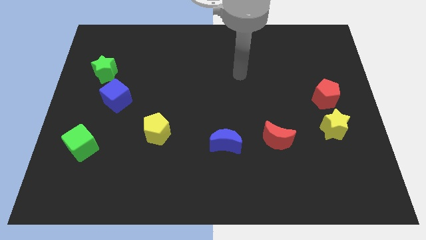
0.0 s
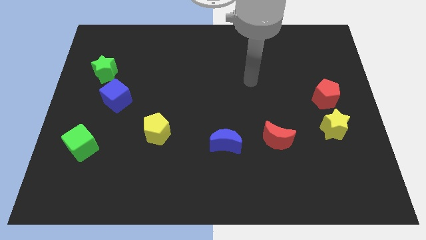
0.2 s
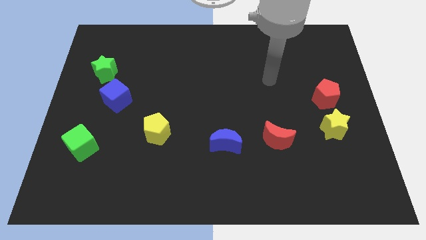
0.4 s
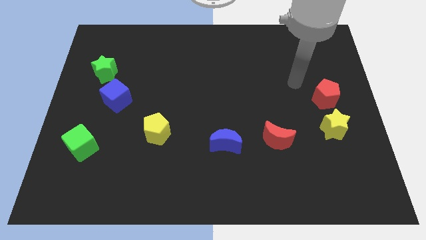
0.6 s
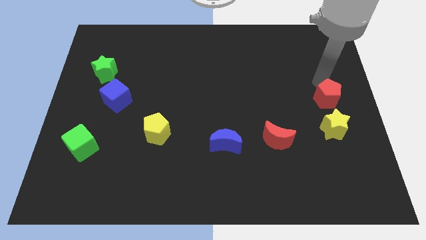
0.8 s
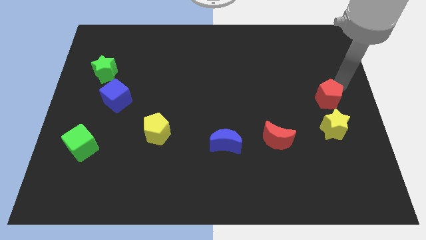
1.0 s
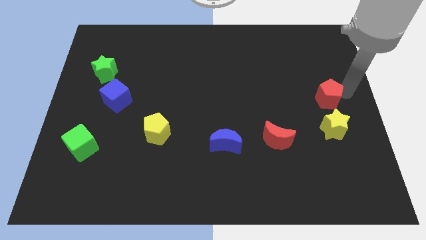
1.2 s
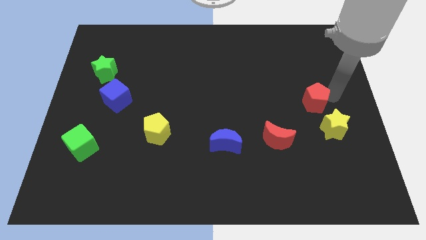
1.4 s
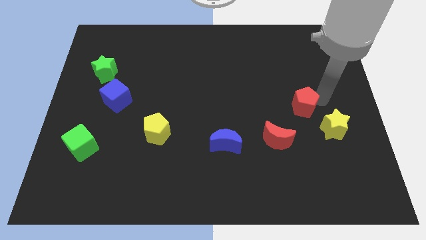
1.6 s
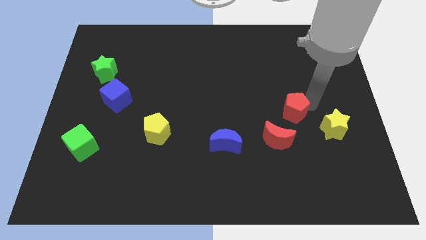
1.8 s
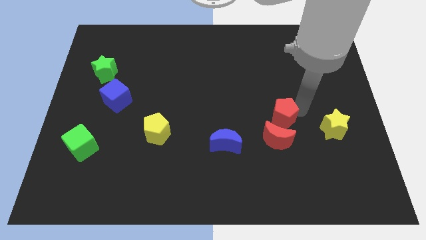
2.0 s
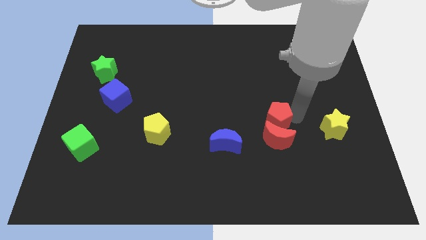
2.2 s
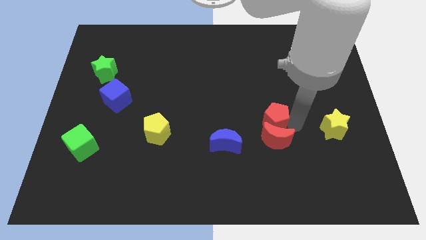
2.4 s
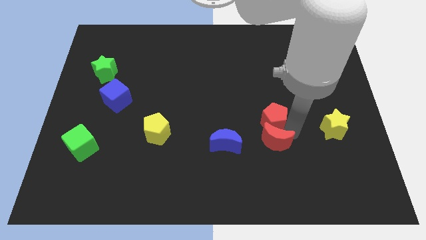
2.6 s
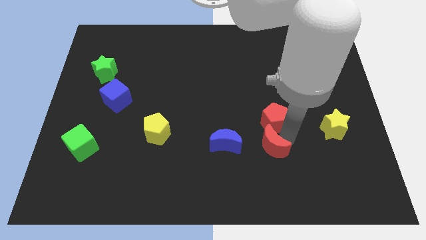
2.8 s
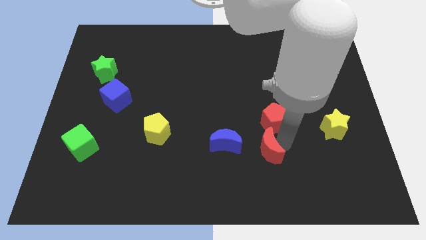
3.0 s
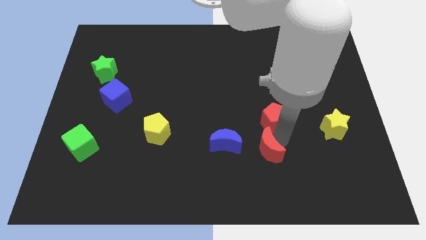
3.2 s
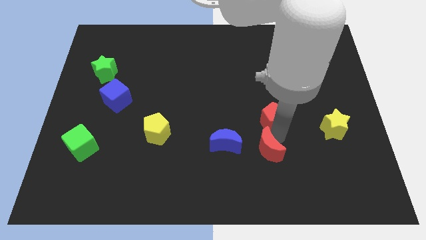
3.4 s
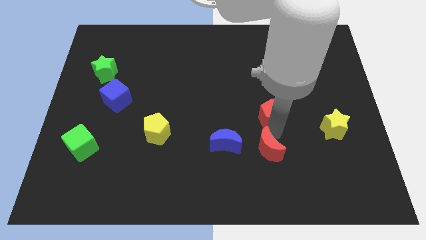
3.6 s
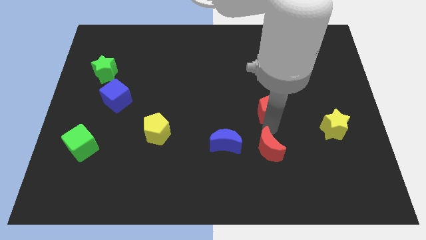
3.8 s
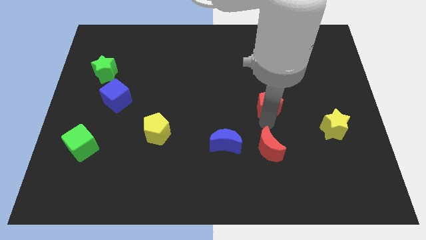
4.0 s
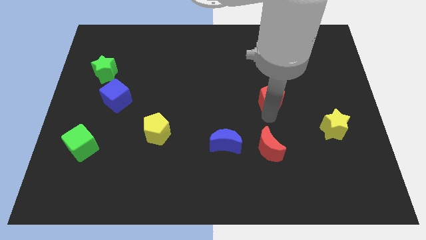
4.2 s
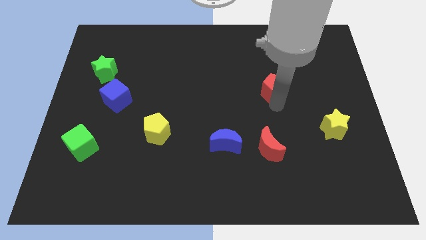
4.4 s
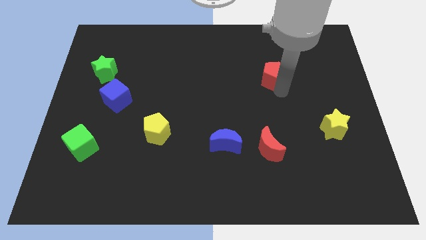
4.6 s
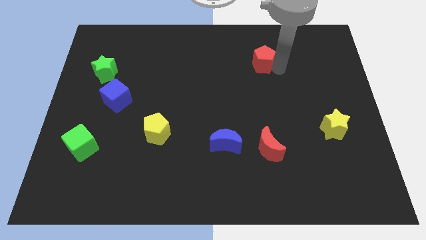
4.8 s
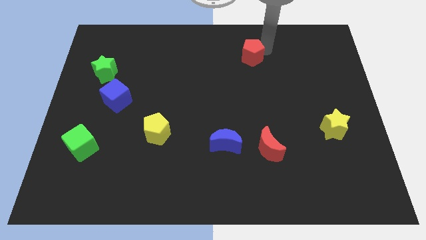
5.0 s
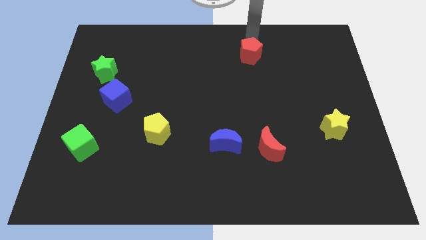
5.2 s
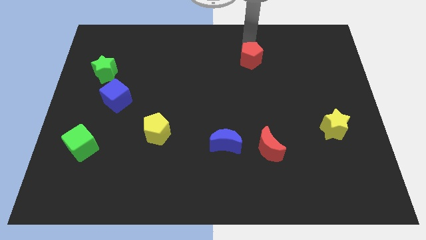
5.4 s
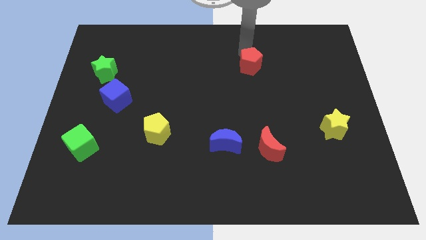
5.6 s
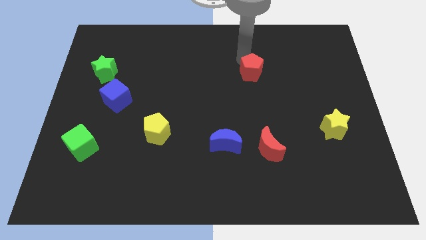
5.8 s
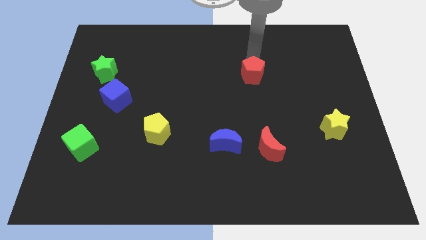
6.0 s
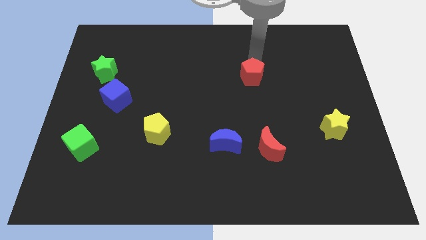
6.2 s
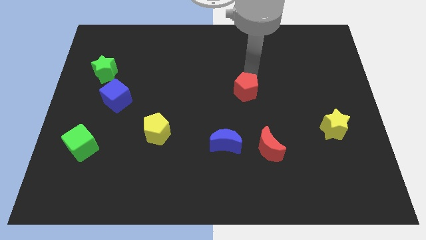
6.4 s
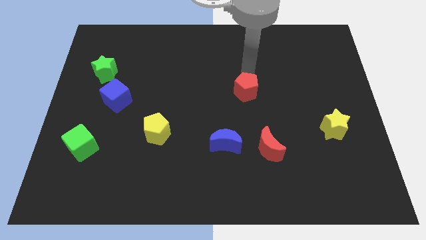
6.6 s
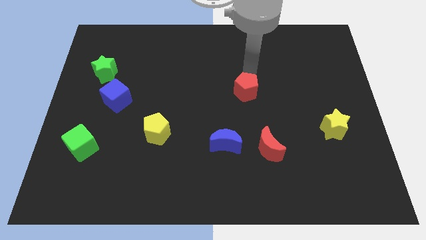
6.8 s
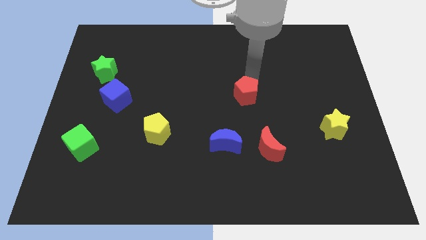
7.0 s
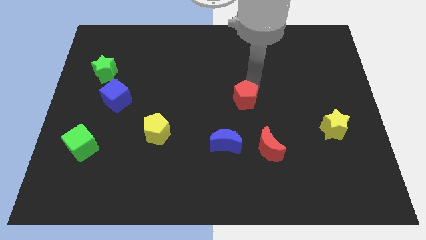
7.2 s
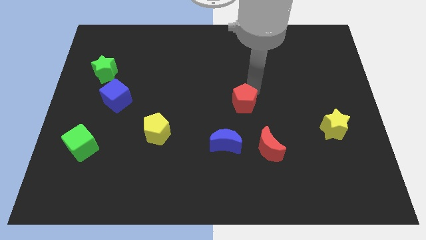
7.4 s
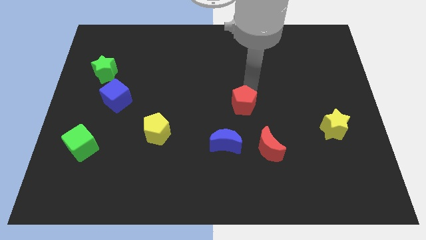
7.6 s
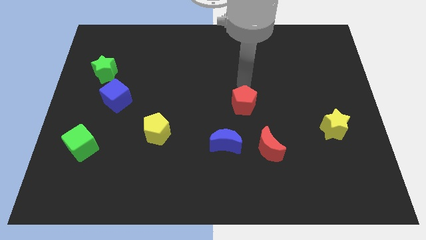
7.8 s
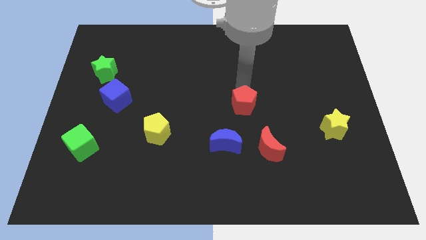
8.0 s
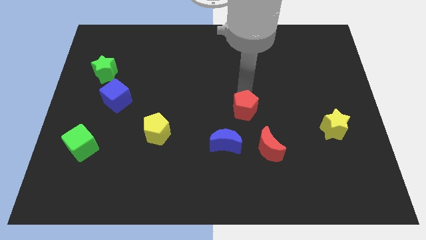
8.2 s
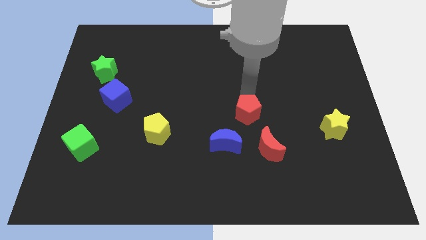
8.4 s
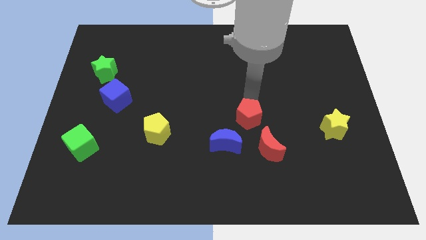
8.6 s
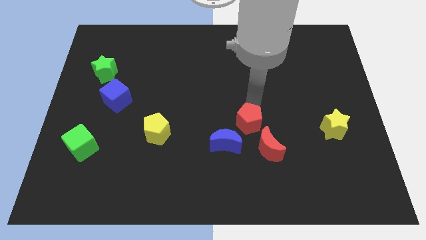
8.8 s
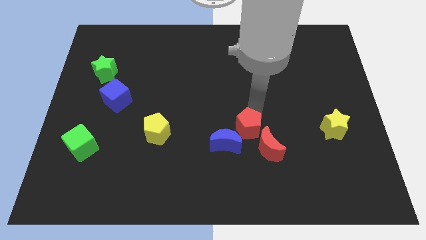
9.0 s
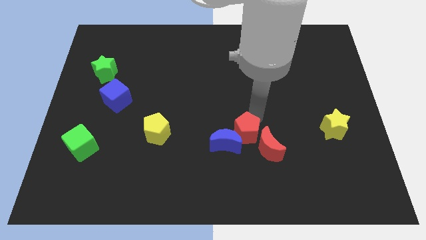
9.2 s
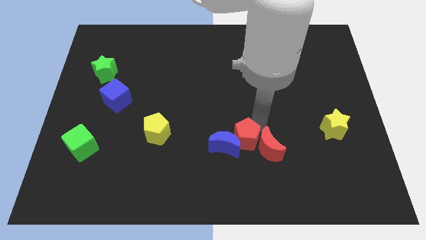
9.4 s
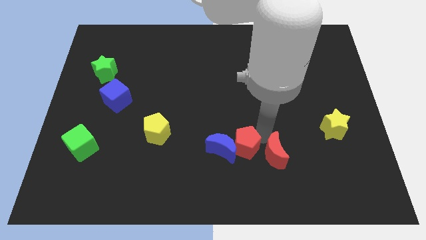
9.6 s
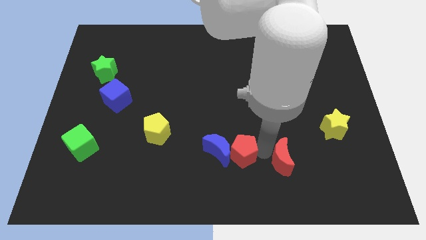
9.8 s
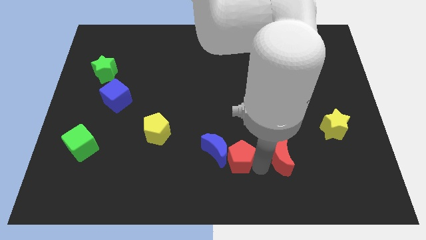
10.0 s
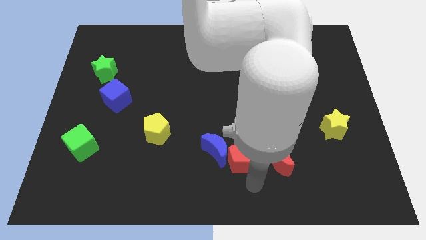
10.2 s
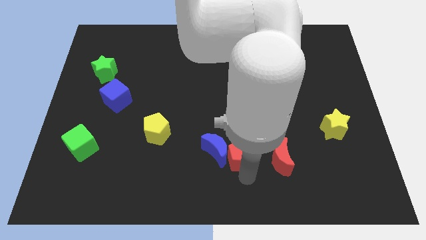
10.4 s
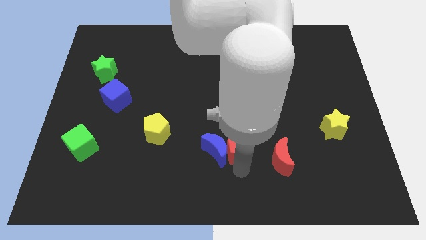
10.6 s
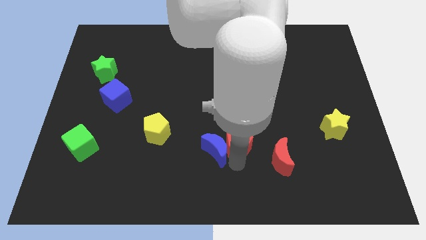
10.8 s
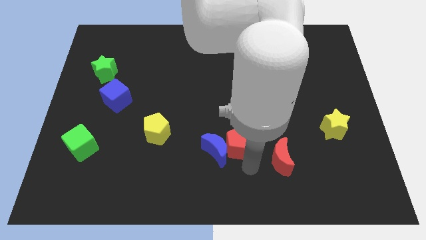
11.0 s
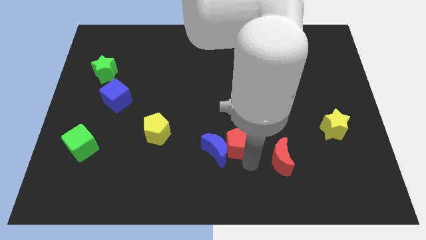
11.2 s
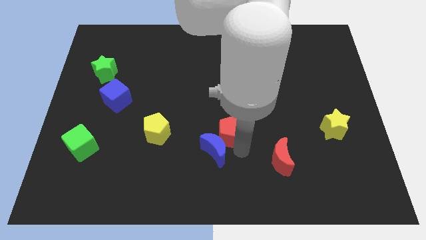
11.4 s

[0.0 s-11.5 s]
slide the red pentagon right of the yellow pentagon

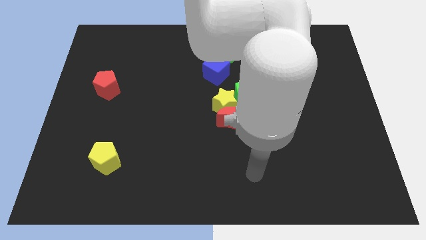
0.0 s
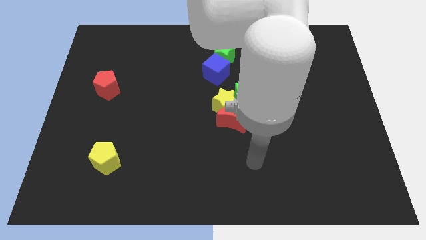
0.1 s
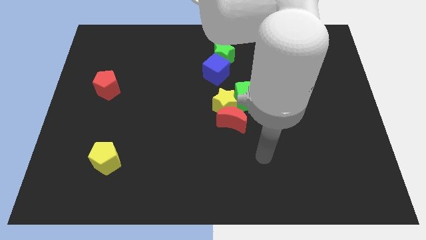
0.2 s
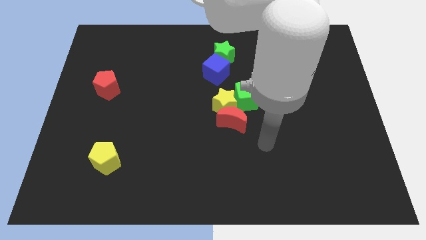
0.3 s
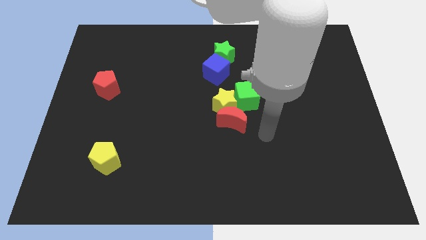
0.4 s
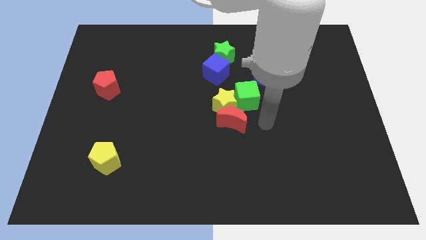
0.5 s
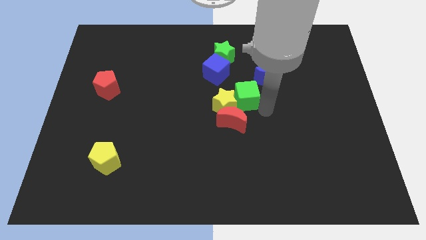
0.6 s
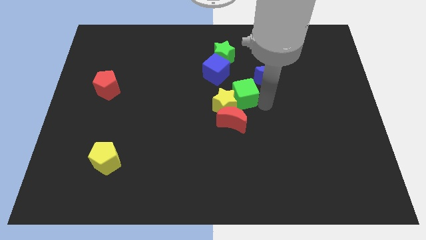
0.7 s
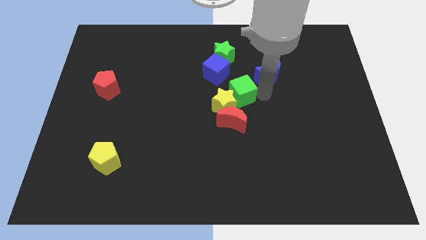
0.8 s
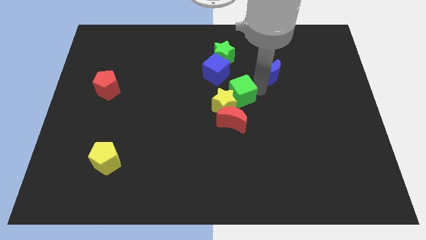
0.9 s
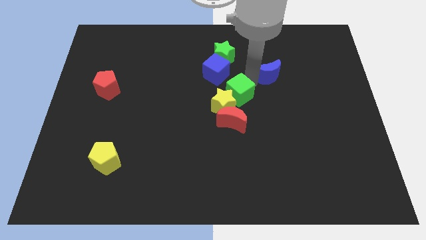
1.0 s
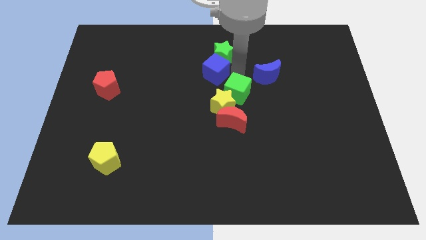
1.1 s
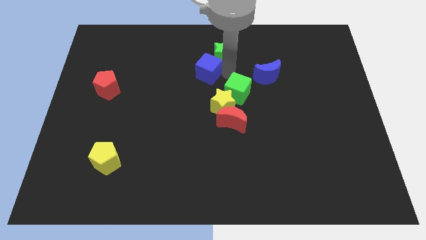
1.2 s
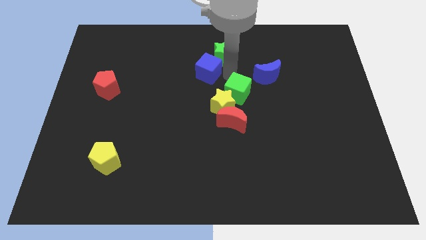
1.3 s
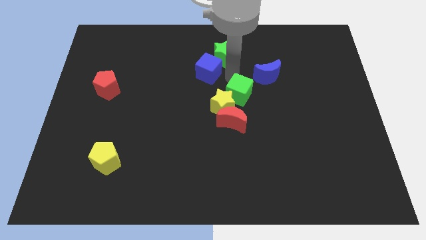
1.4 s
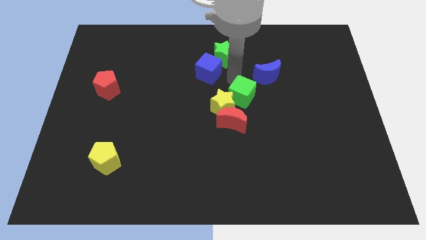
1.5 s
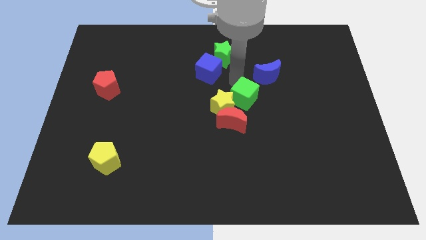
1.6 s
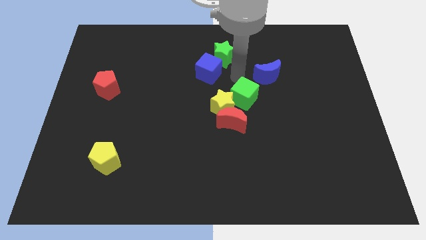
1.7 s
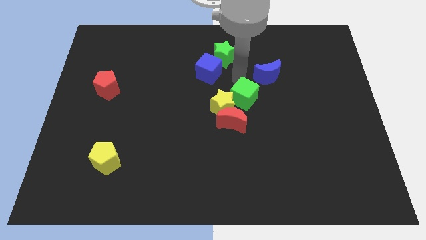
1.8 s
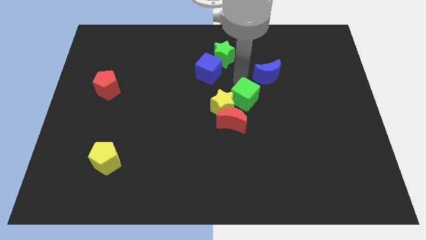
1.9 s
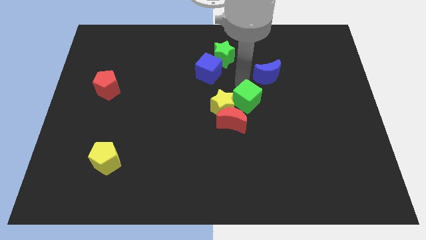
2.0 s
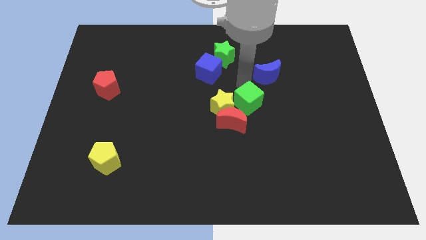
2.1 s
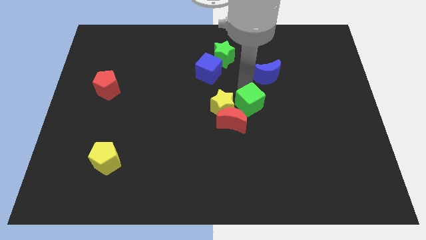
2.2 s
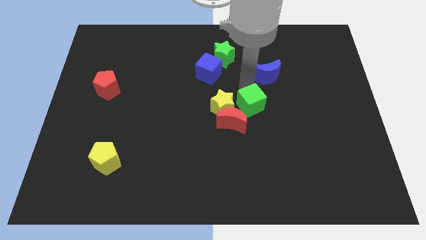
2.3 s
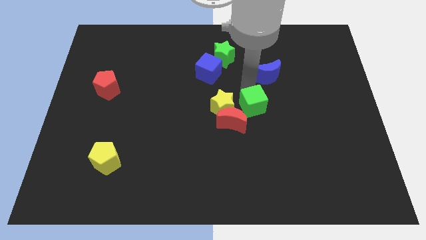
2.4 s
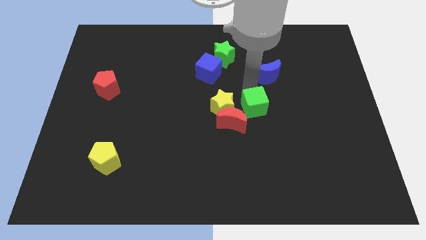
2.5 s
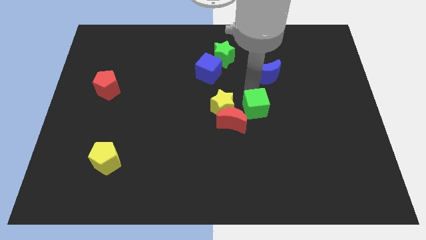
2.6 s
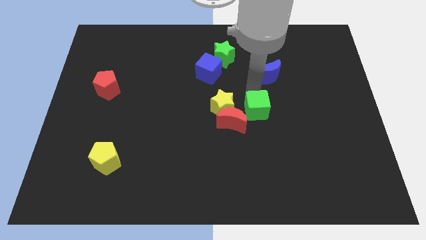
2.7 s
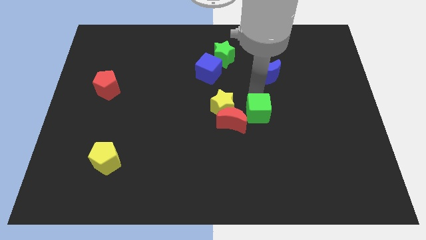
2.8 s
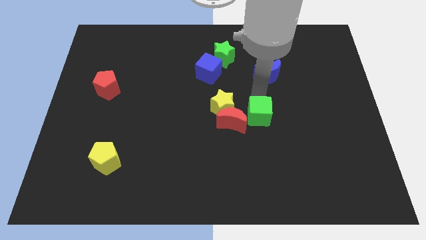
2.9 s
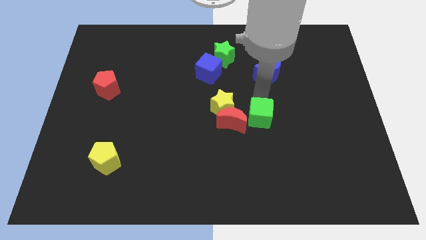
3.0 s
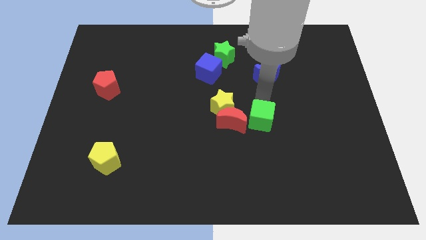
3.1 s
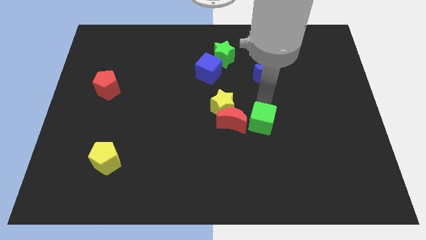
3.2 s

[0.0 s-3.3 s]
move the green cube to the bottom right of the red moon
